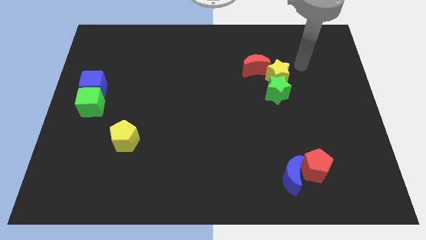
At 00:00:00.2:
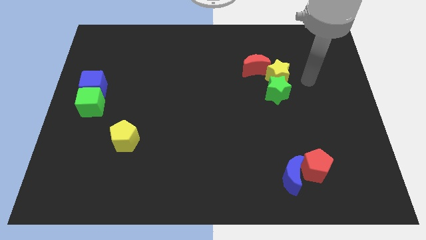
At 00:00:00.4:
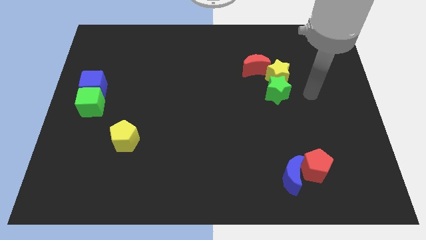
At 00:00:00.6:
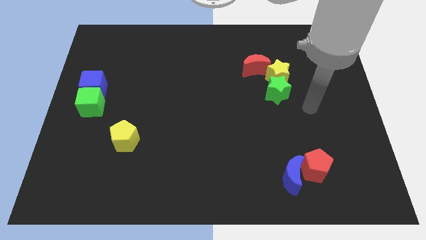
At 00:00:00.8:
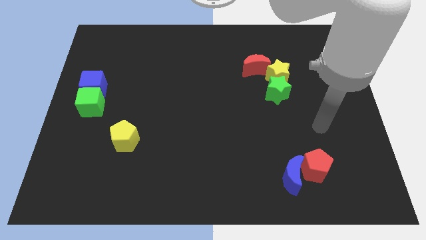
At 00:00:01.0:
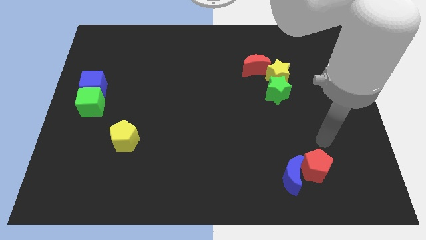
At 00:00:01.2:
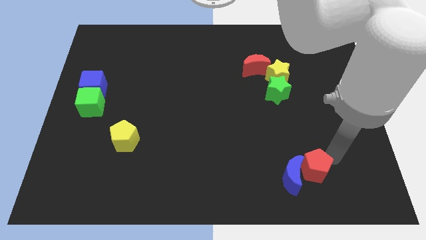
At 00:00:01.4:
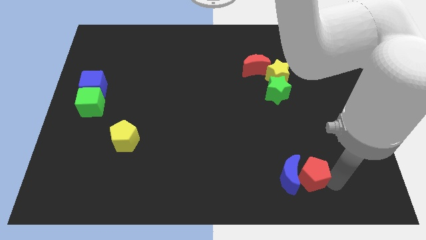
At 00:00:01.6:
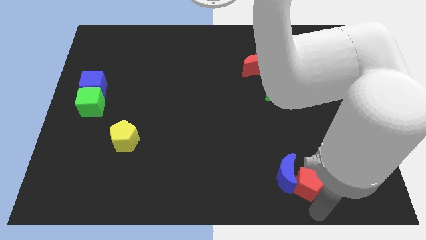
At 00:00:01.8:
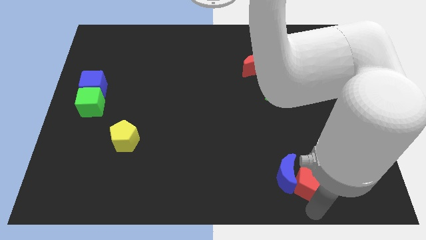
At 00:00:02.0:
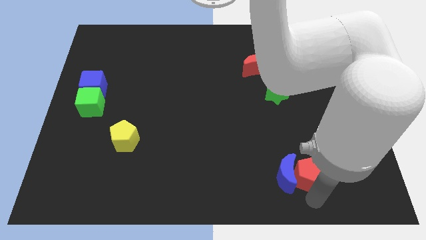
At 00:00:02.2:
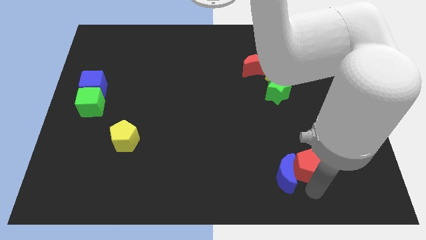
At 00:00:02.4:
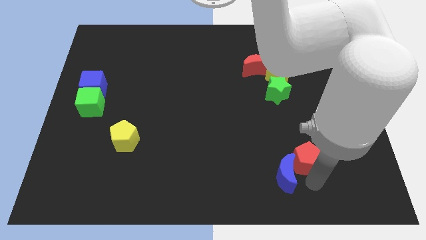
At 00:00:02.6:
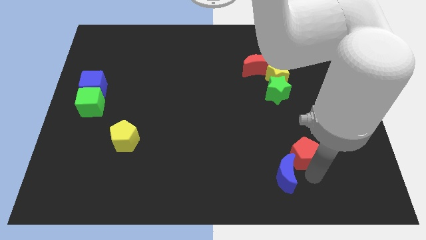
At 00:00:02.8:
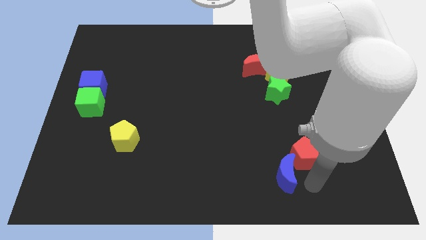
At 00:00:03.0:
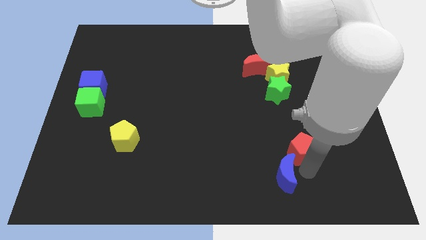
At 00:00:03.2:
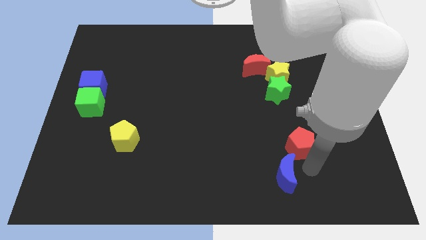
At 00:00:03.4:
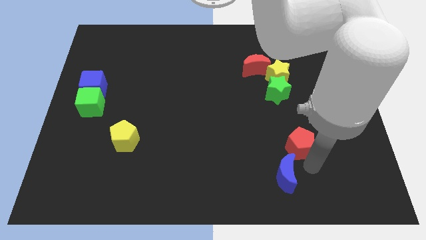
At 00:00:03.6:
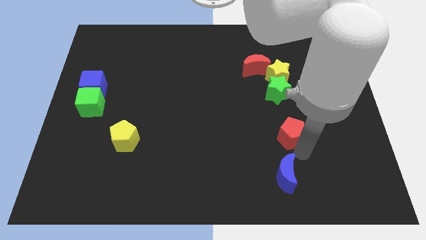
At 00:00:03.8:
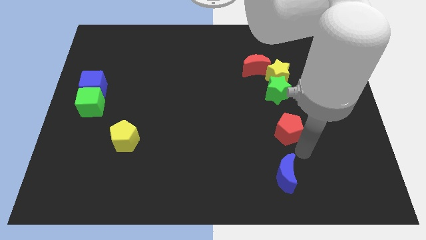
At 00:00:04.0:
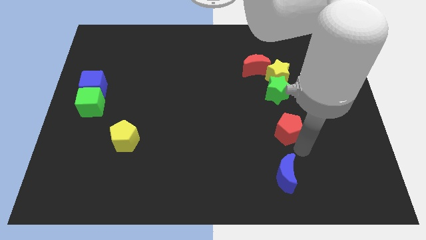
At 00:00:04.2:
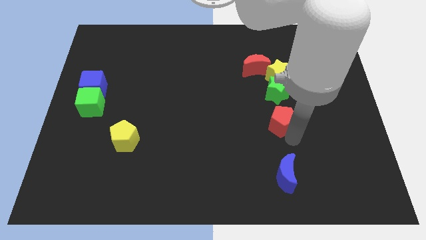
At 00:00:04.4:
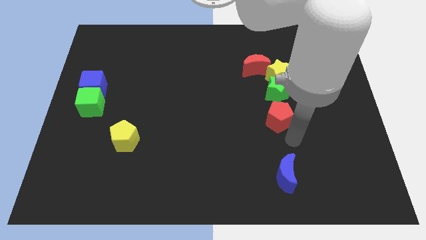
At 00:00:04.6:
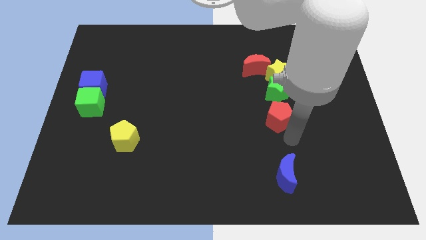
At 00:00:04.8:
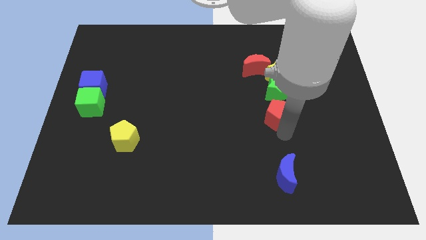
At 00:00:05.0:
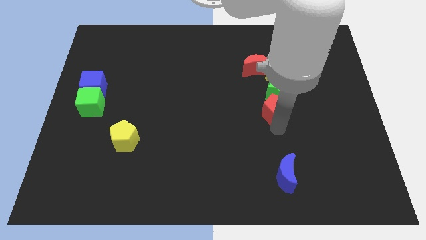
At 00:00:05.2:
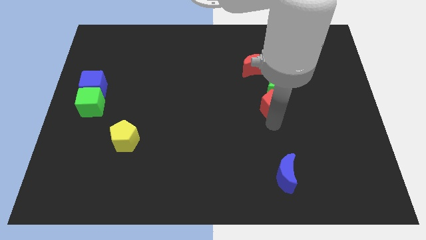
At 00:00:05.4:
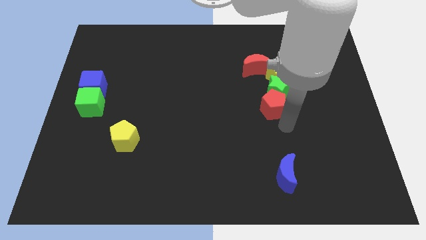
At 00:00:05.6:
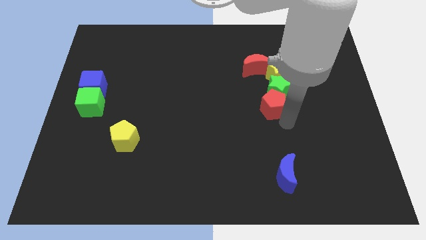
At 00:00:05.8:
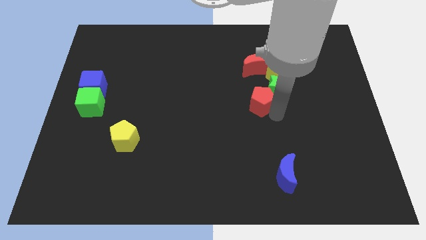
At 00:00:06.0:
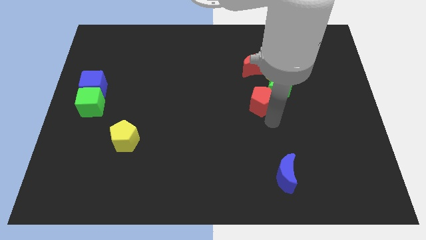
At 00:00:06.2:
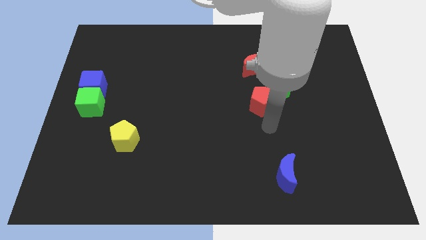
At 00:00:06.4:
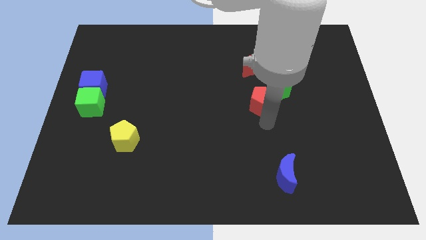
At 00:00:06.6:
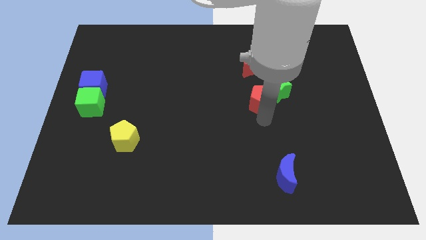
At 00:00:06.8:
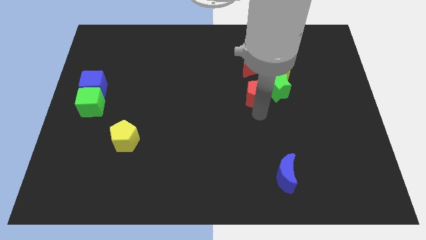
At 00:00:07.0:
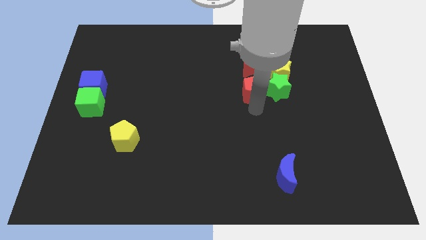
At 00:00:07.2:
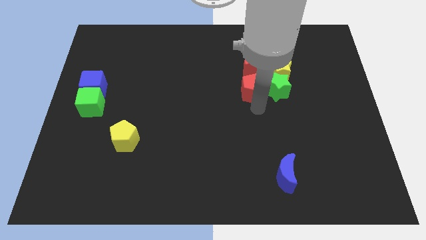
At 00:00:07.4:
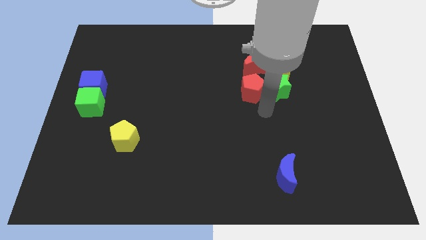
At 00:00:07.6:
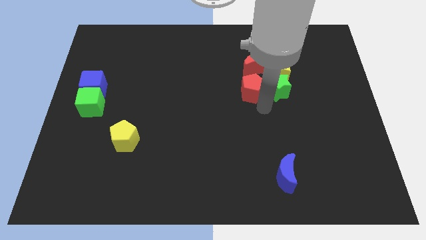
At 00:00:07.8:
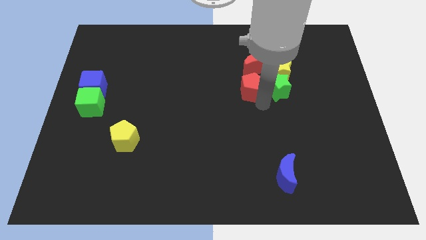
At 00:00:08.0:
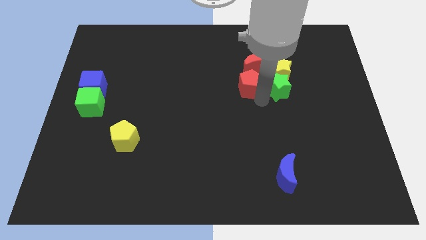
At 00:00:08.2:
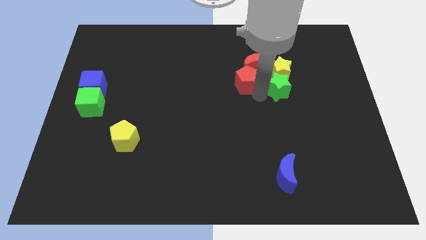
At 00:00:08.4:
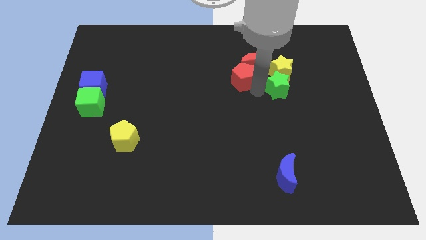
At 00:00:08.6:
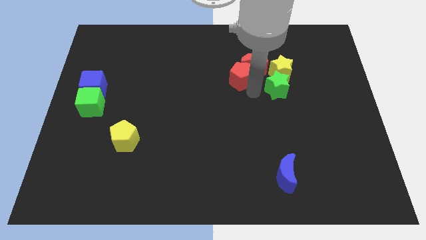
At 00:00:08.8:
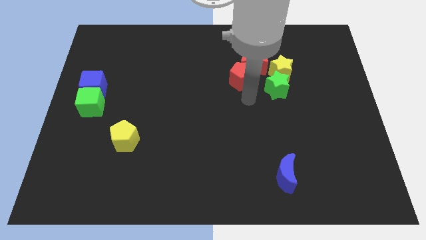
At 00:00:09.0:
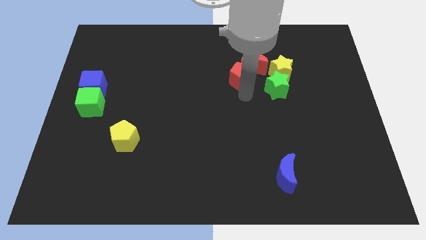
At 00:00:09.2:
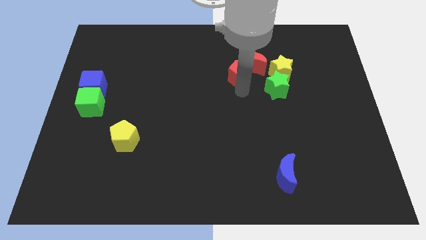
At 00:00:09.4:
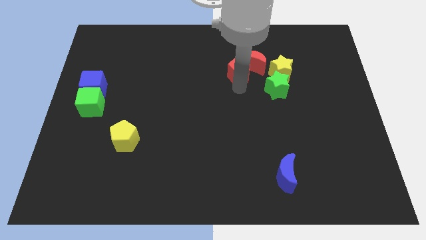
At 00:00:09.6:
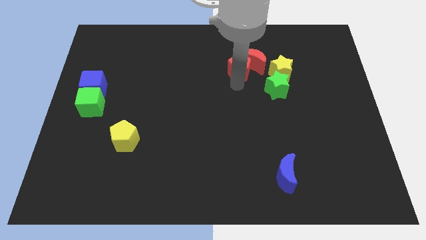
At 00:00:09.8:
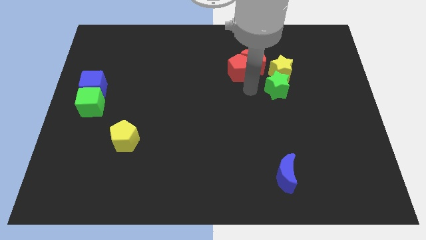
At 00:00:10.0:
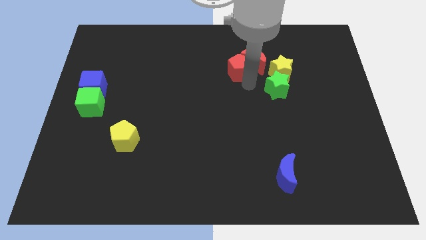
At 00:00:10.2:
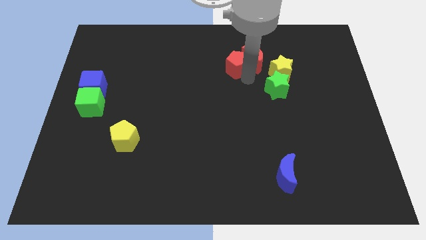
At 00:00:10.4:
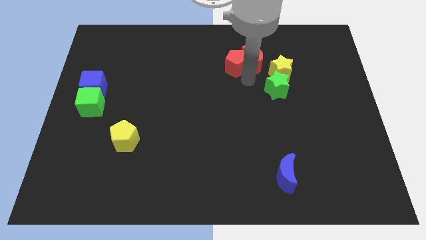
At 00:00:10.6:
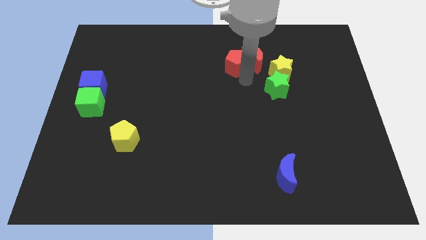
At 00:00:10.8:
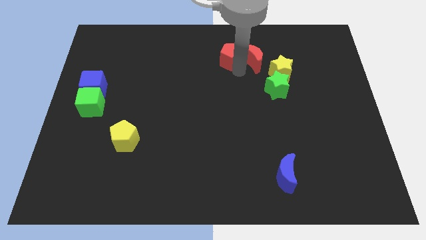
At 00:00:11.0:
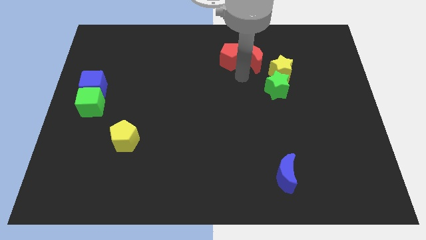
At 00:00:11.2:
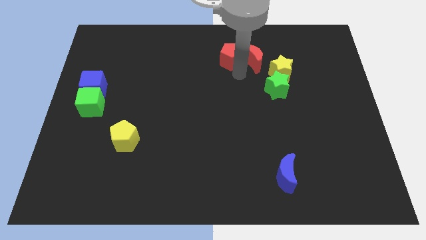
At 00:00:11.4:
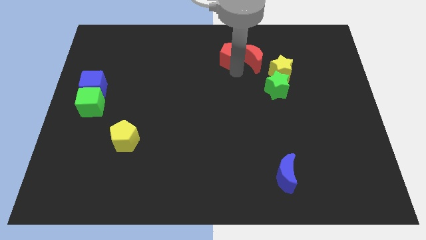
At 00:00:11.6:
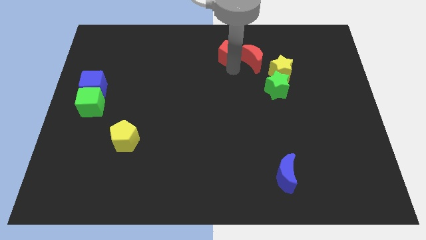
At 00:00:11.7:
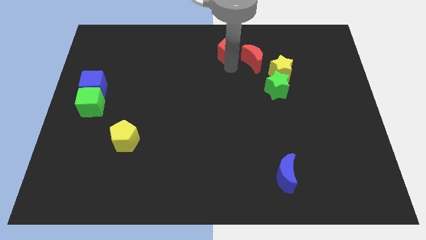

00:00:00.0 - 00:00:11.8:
move the red pentagon to the top
